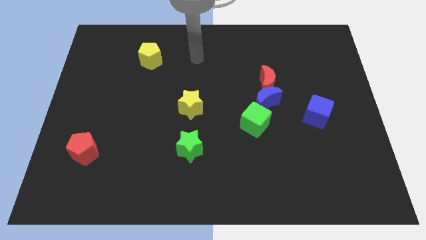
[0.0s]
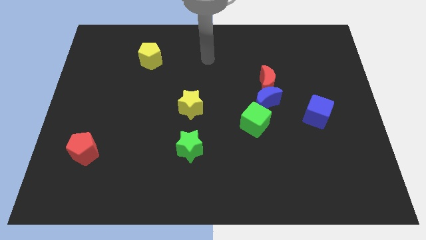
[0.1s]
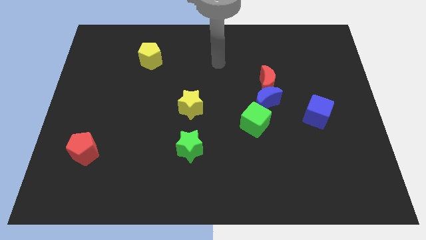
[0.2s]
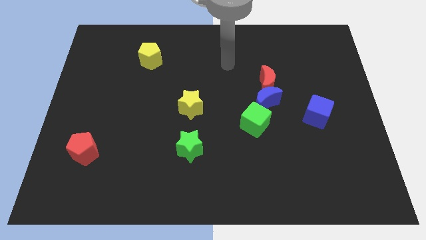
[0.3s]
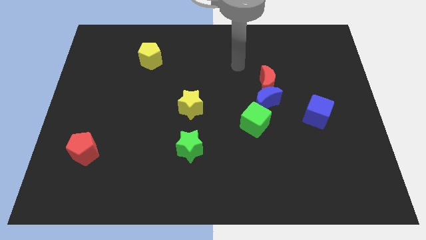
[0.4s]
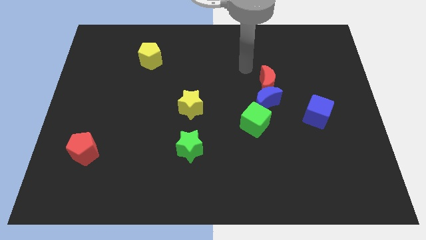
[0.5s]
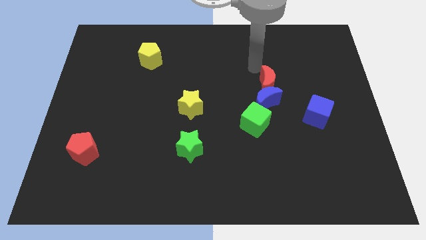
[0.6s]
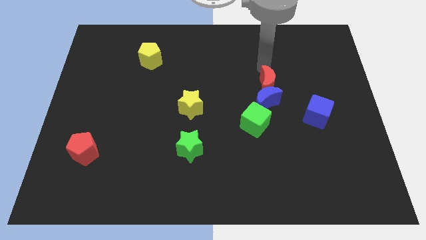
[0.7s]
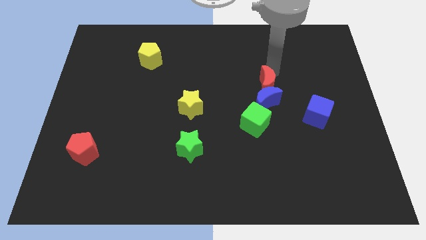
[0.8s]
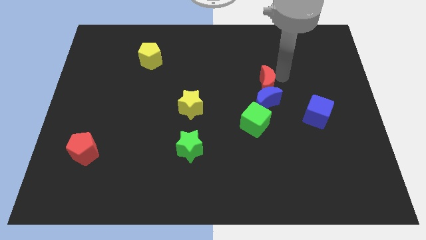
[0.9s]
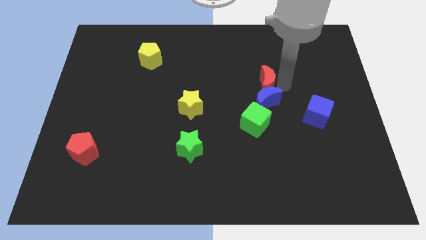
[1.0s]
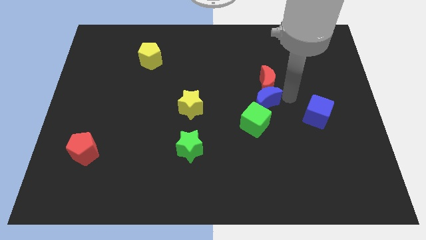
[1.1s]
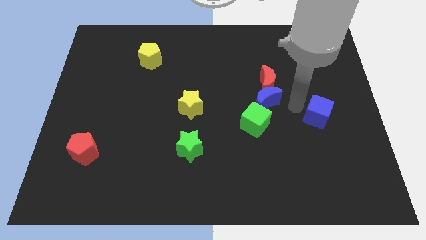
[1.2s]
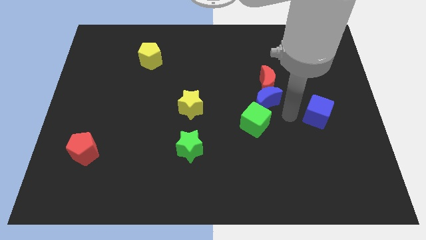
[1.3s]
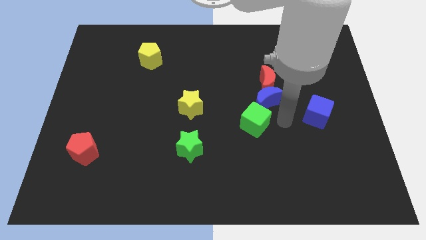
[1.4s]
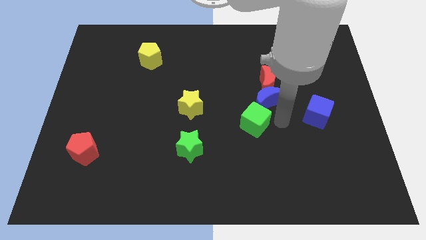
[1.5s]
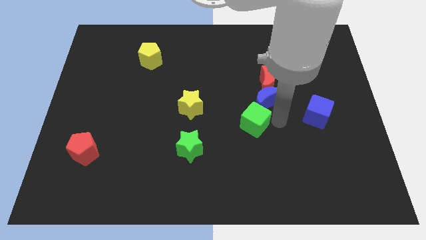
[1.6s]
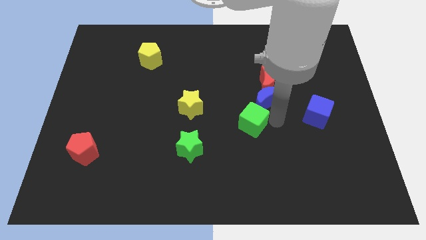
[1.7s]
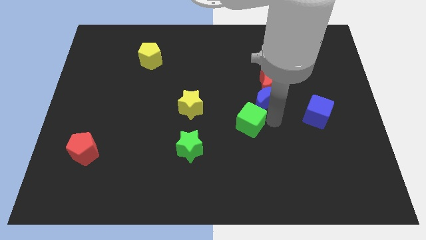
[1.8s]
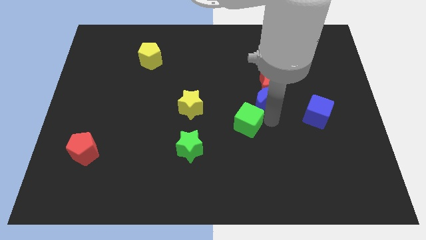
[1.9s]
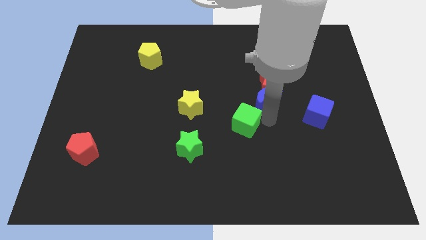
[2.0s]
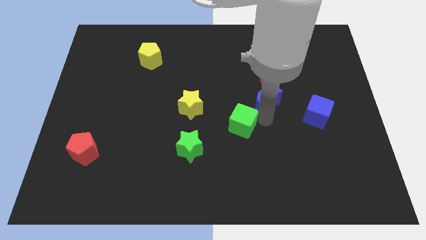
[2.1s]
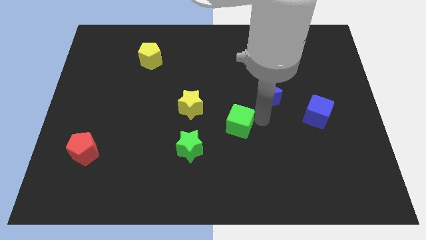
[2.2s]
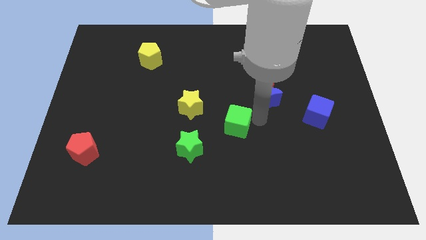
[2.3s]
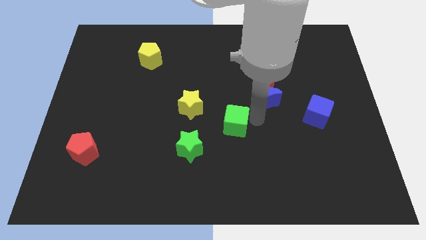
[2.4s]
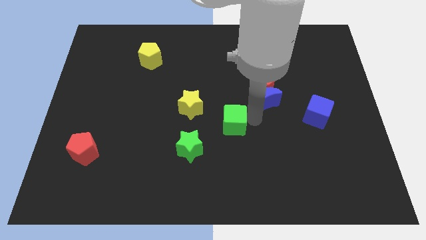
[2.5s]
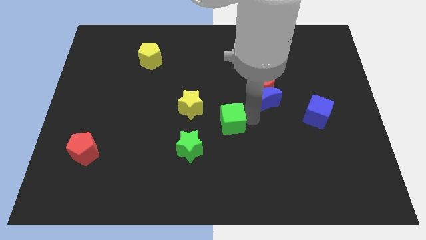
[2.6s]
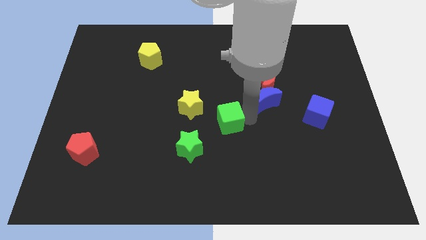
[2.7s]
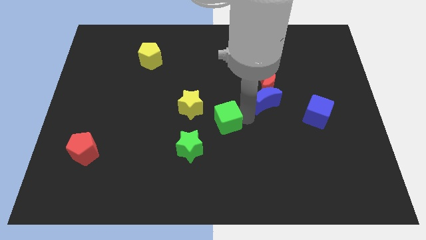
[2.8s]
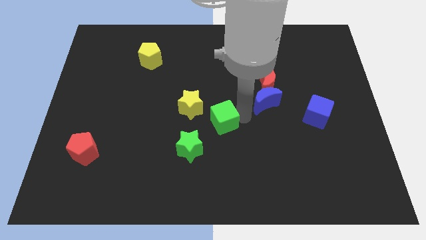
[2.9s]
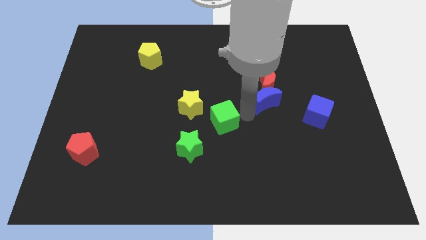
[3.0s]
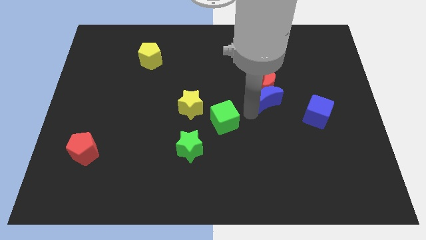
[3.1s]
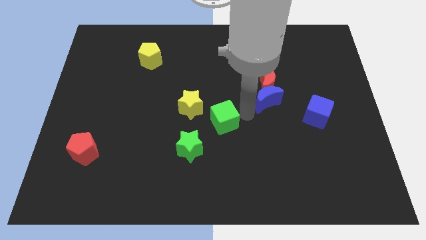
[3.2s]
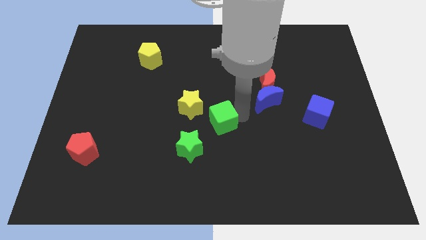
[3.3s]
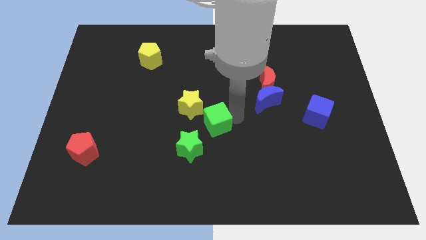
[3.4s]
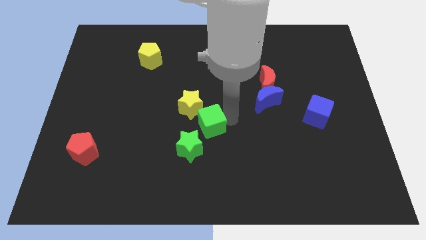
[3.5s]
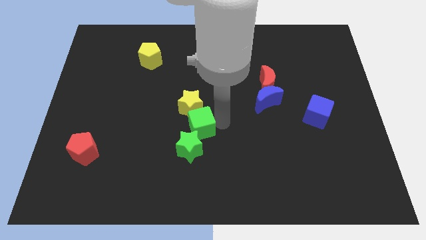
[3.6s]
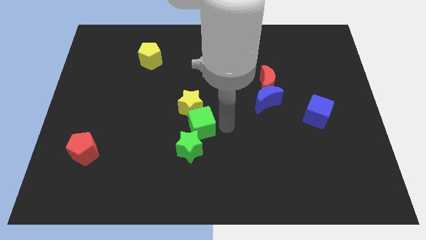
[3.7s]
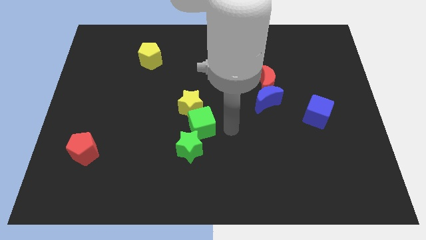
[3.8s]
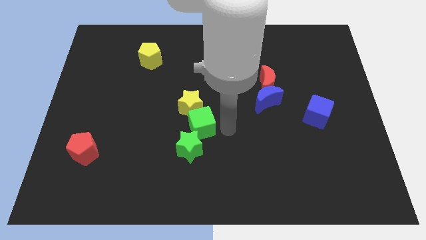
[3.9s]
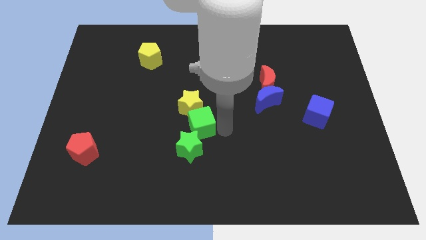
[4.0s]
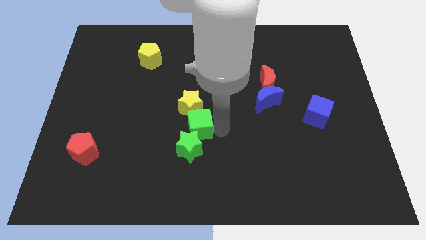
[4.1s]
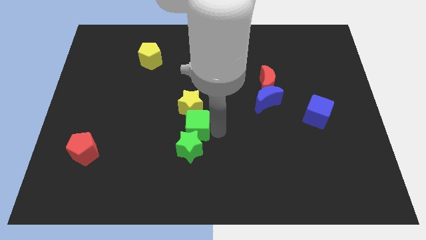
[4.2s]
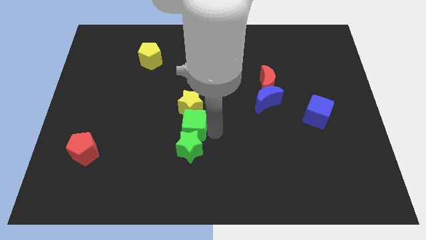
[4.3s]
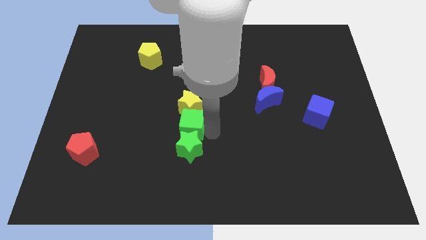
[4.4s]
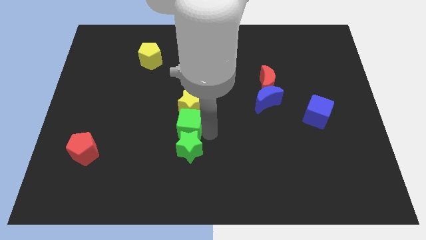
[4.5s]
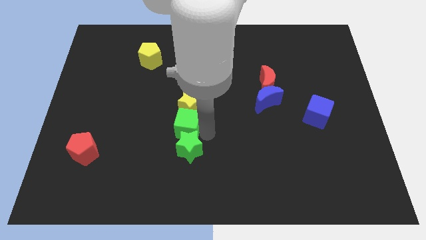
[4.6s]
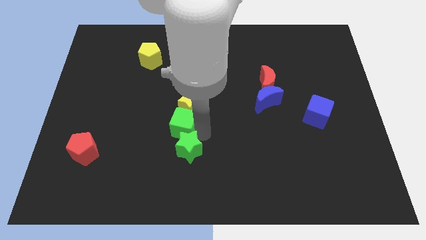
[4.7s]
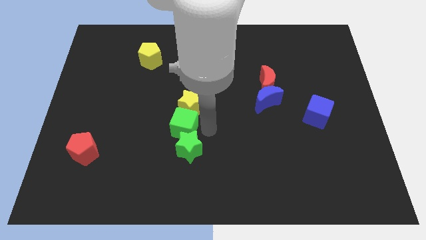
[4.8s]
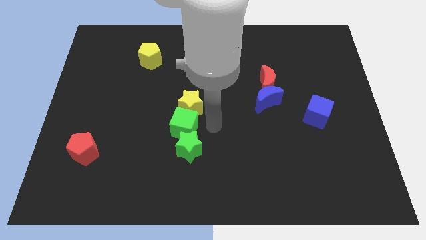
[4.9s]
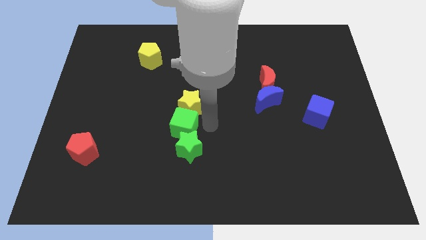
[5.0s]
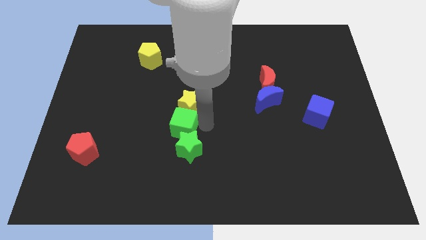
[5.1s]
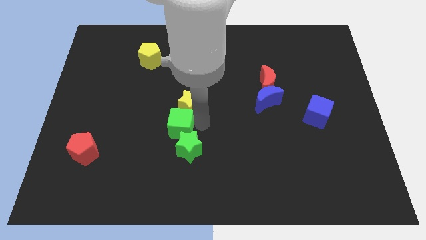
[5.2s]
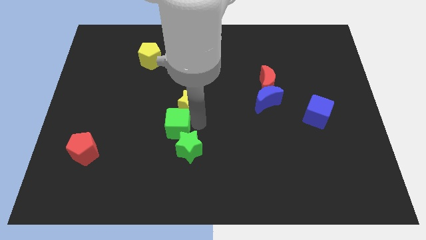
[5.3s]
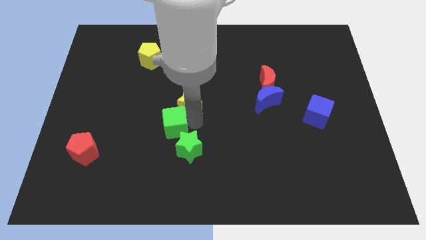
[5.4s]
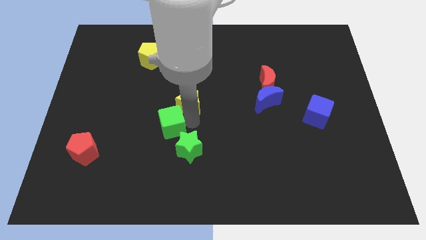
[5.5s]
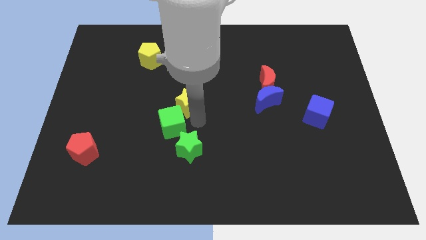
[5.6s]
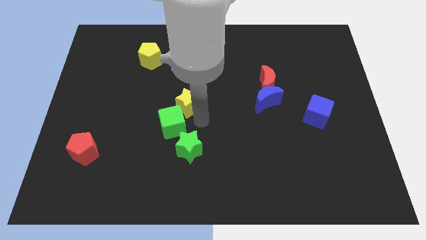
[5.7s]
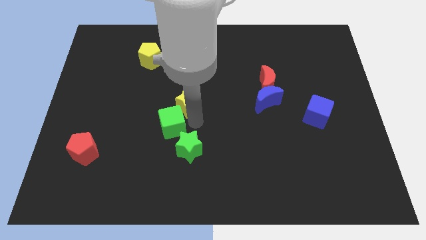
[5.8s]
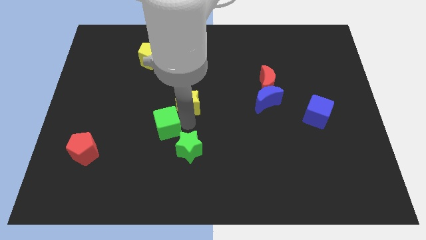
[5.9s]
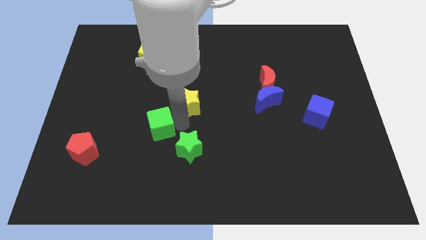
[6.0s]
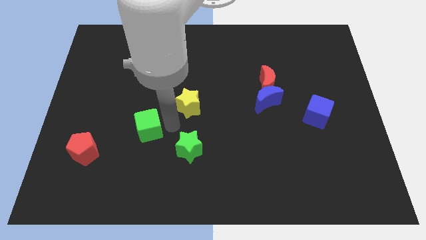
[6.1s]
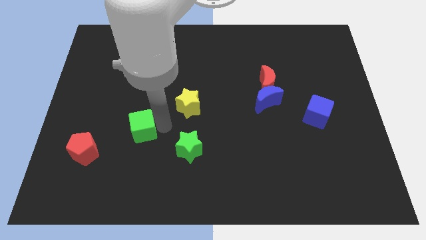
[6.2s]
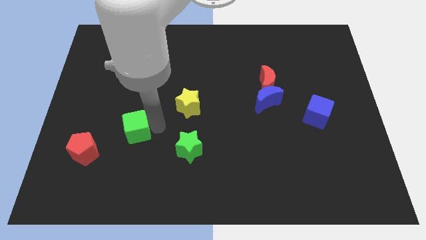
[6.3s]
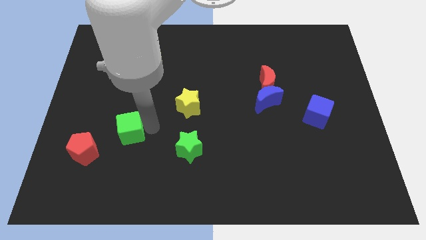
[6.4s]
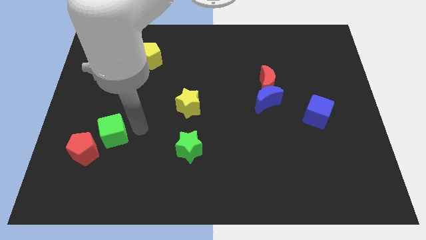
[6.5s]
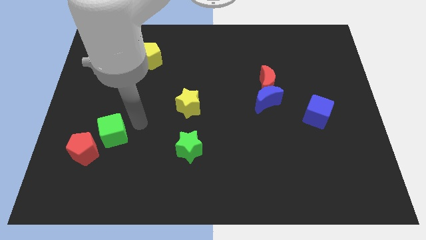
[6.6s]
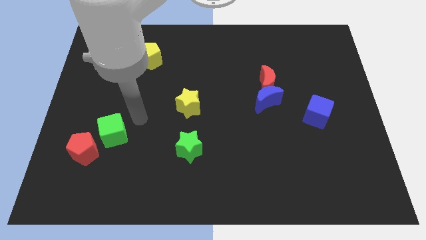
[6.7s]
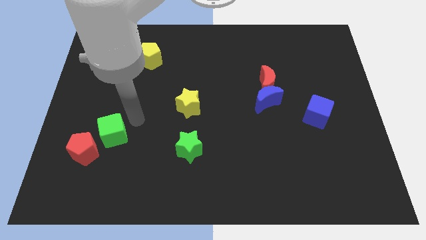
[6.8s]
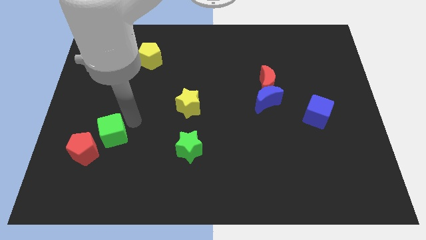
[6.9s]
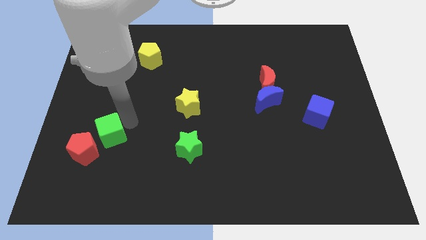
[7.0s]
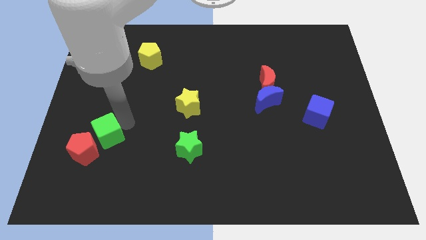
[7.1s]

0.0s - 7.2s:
slide the green cube next to the red pentagon

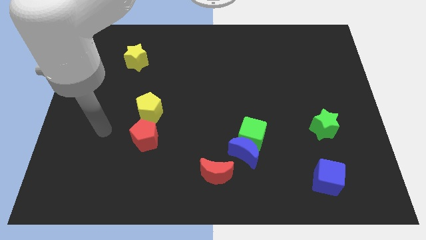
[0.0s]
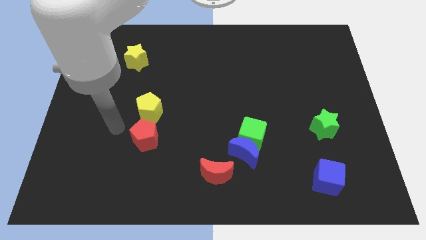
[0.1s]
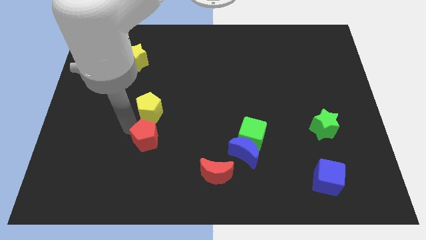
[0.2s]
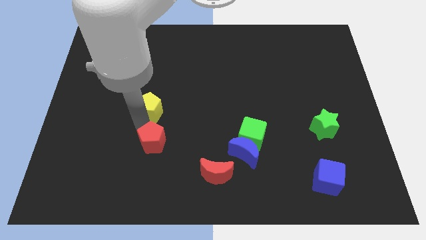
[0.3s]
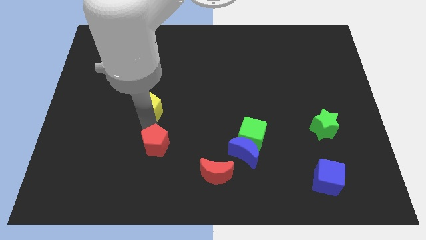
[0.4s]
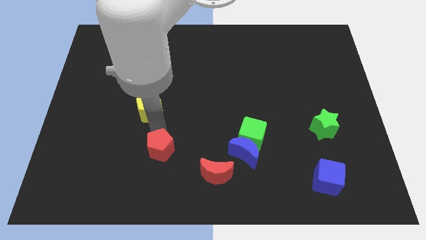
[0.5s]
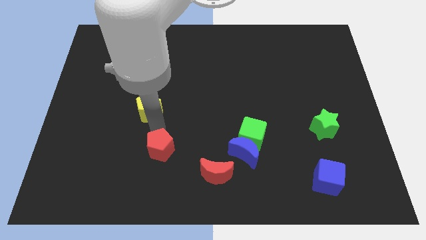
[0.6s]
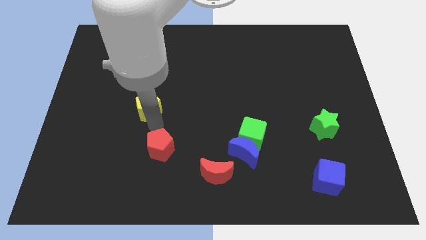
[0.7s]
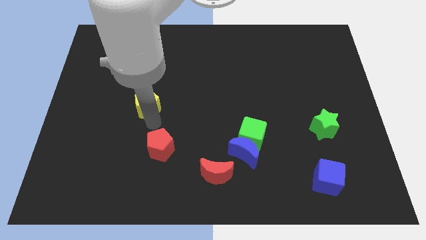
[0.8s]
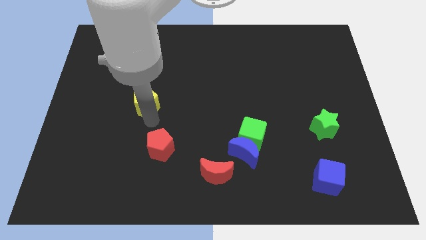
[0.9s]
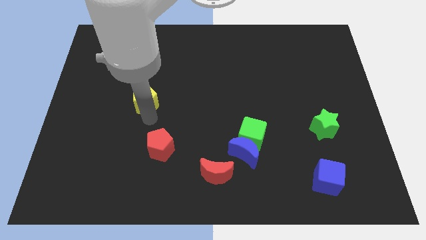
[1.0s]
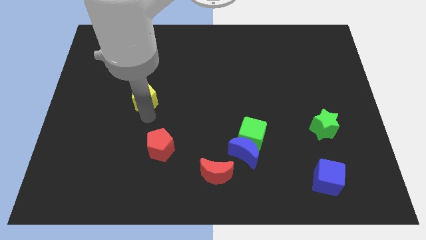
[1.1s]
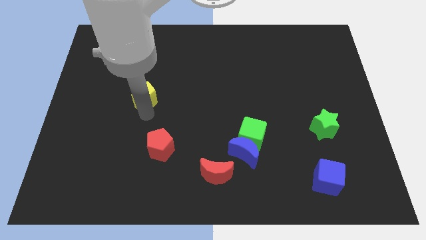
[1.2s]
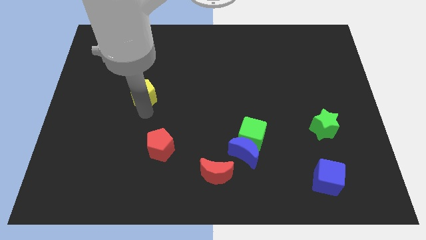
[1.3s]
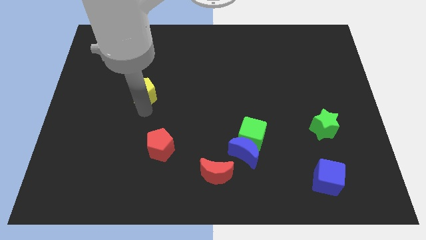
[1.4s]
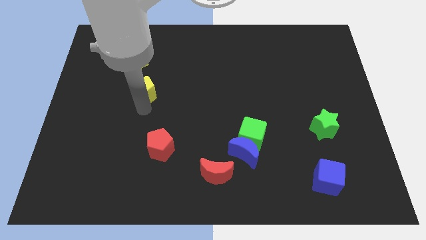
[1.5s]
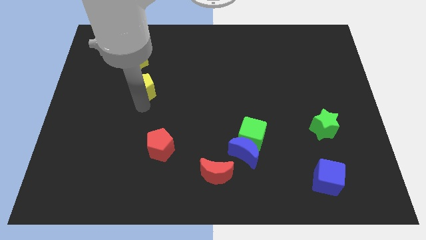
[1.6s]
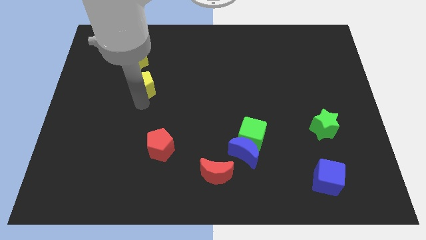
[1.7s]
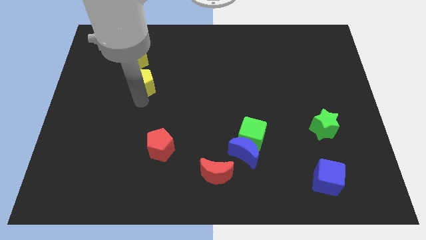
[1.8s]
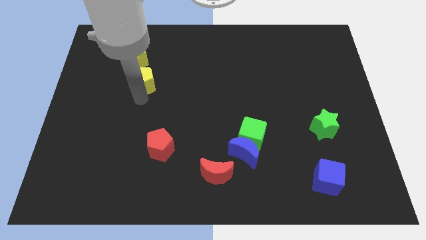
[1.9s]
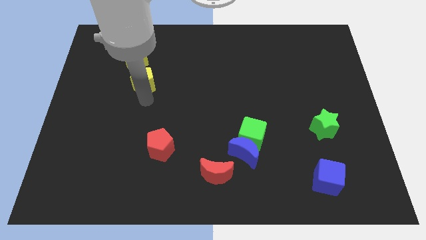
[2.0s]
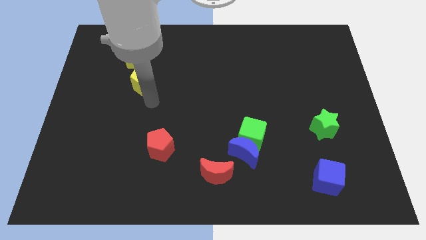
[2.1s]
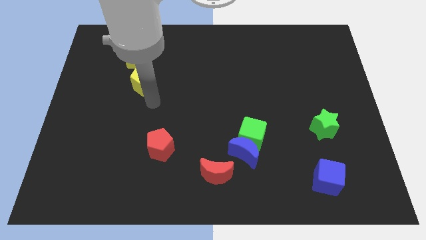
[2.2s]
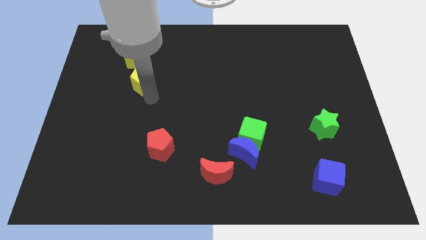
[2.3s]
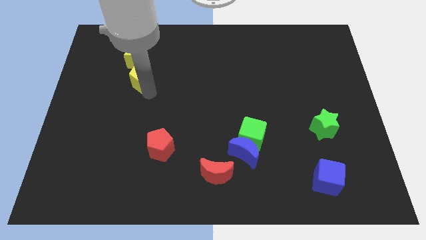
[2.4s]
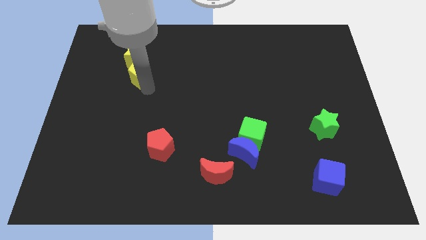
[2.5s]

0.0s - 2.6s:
slide the yellow pentagon to the yellow star
